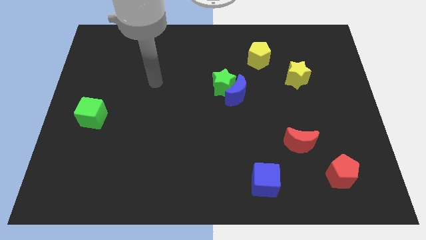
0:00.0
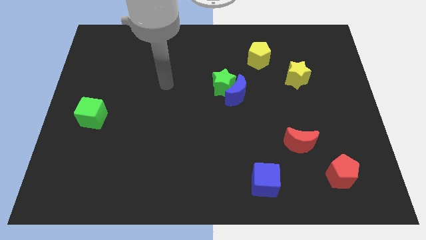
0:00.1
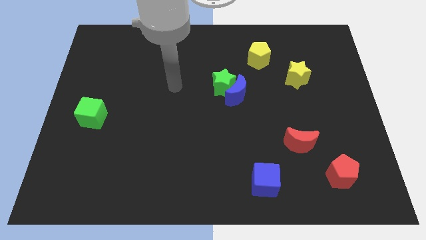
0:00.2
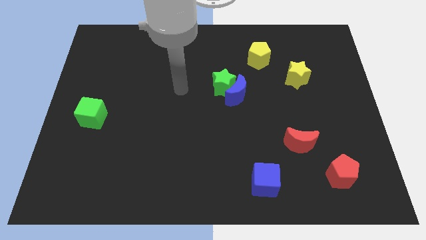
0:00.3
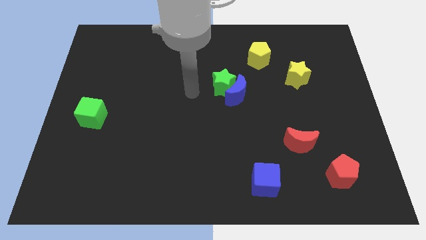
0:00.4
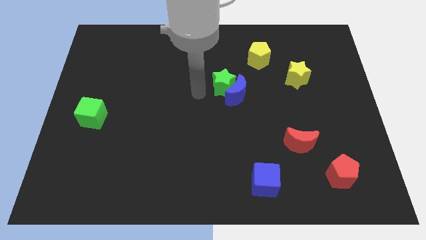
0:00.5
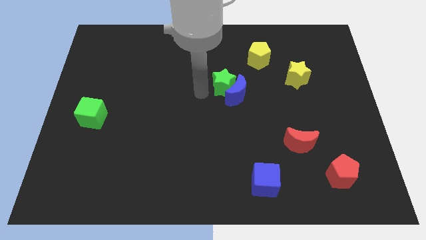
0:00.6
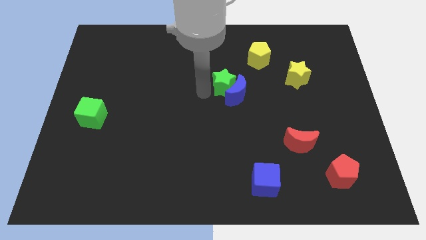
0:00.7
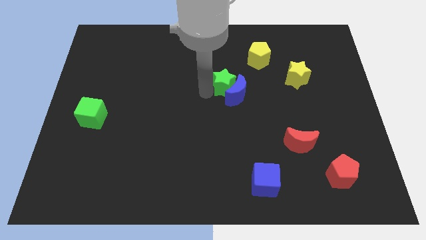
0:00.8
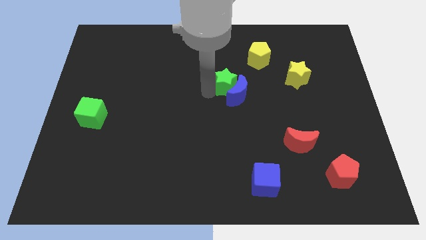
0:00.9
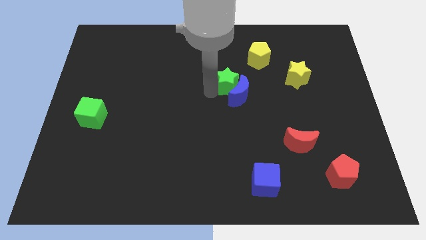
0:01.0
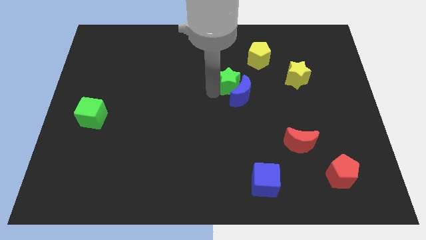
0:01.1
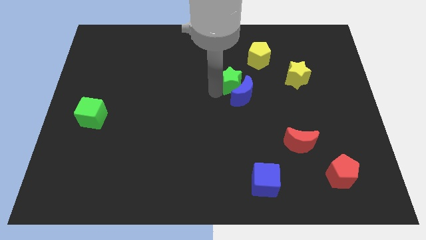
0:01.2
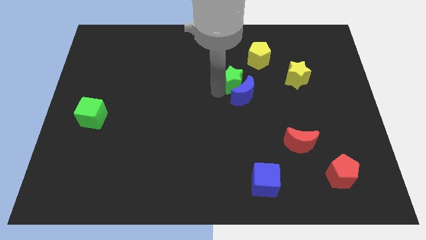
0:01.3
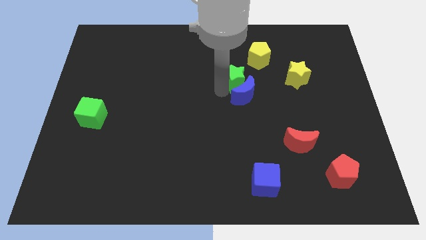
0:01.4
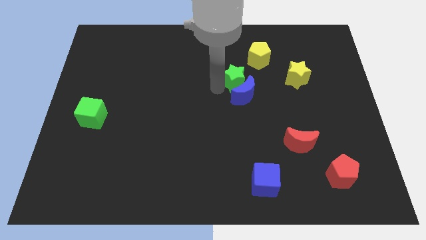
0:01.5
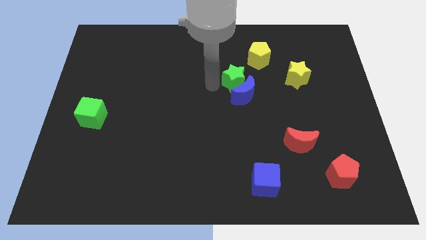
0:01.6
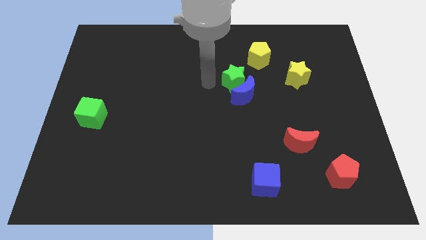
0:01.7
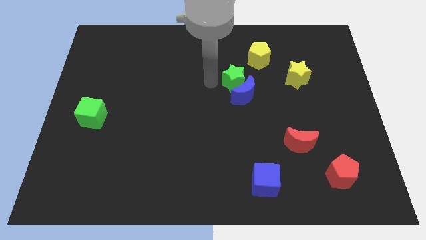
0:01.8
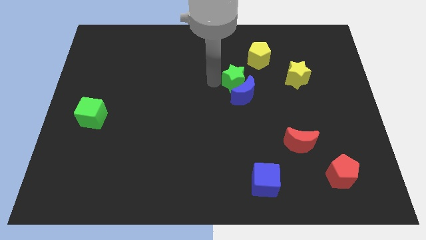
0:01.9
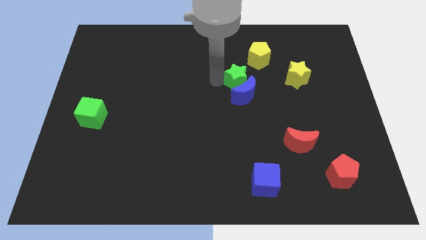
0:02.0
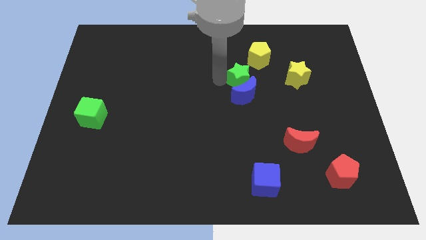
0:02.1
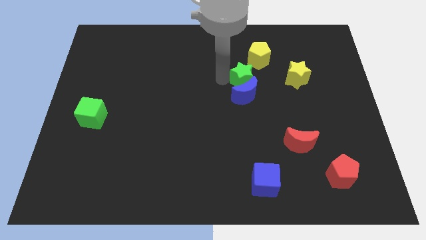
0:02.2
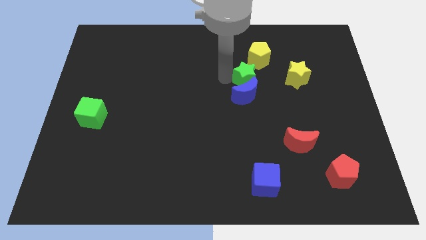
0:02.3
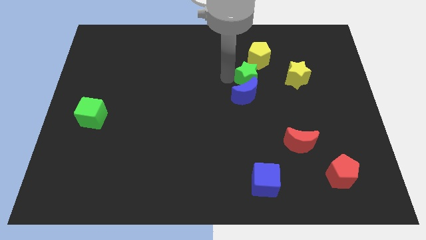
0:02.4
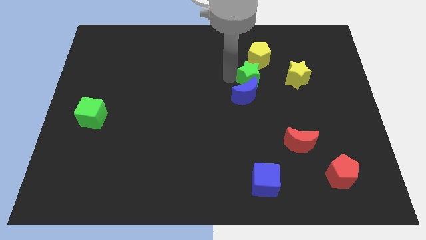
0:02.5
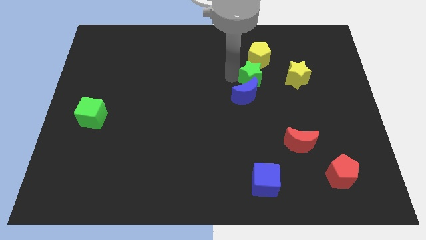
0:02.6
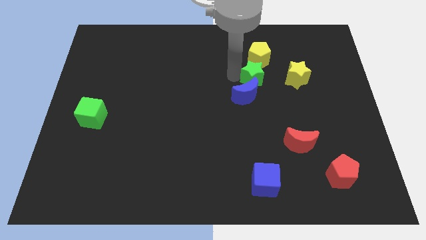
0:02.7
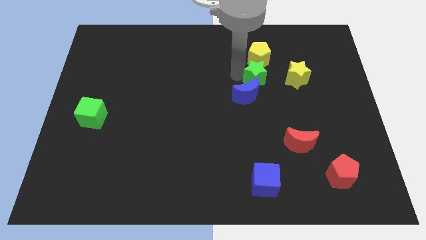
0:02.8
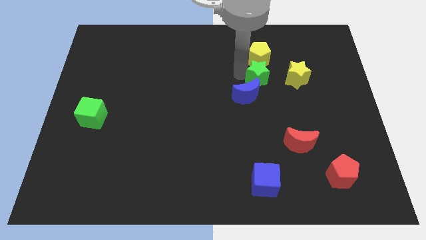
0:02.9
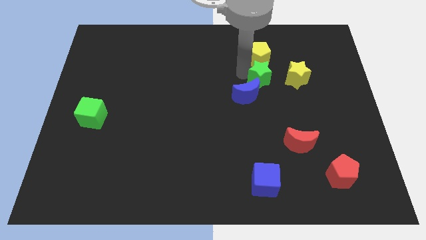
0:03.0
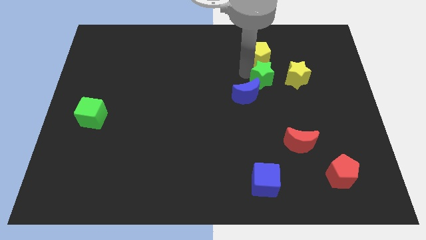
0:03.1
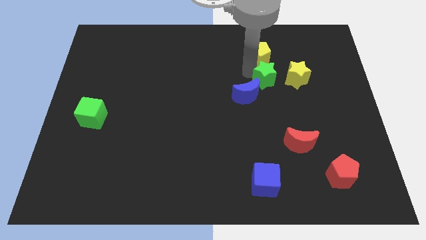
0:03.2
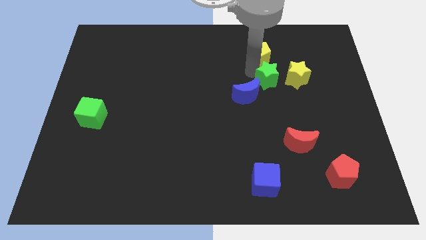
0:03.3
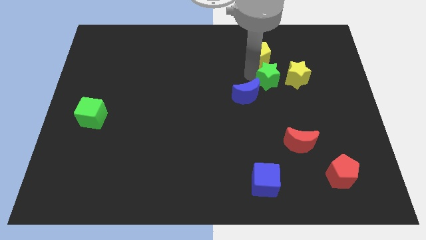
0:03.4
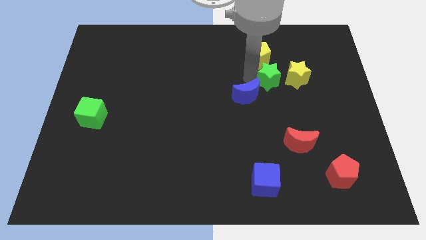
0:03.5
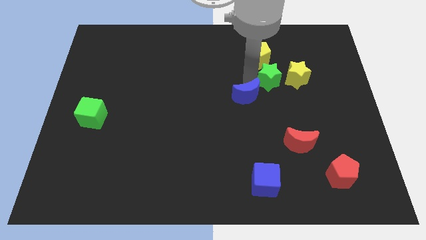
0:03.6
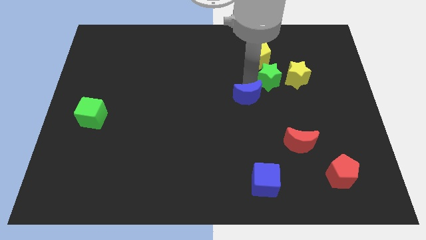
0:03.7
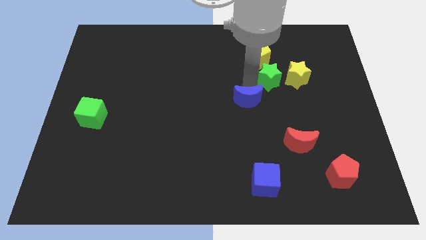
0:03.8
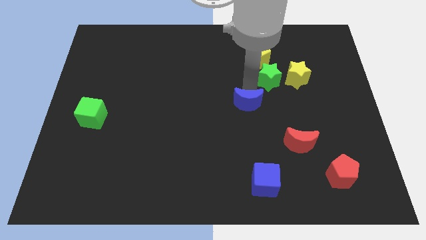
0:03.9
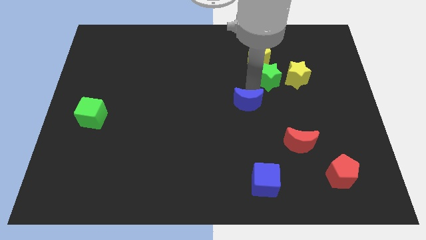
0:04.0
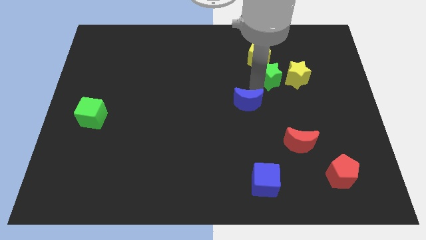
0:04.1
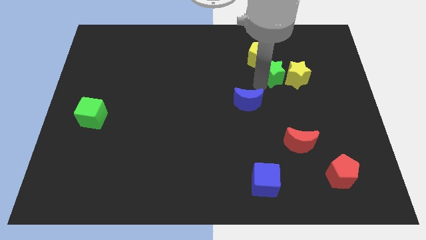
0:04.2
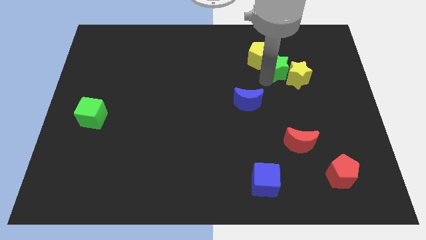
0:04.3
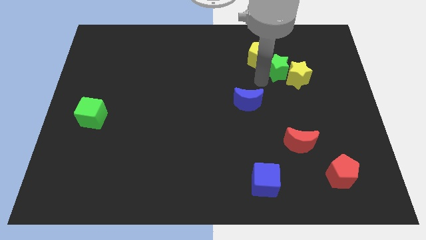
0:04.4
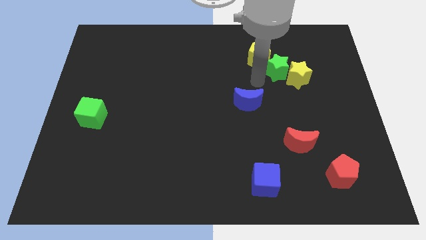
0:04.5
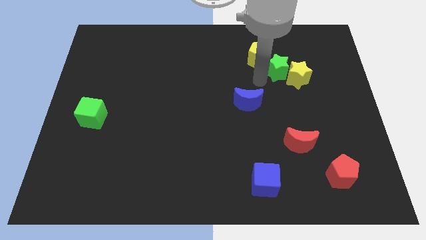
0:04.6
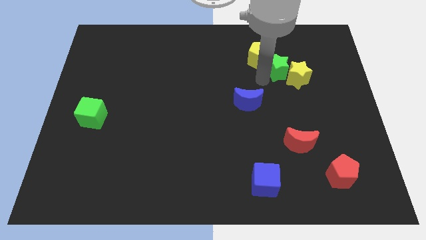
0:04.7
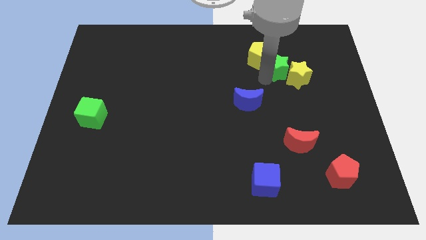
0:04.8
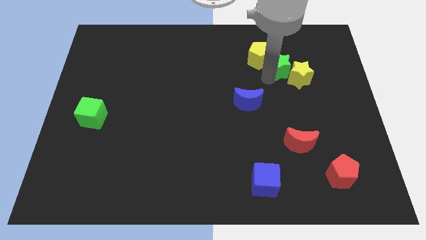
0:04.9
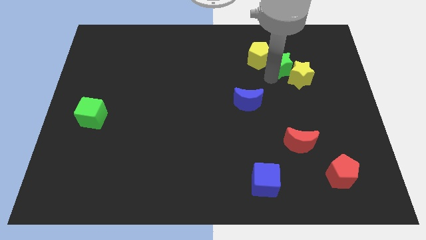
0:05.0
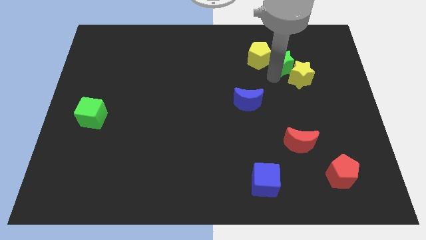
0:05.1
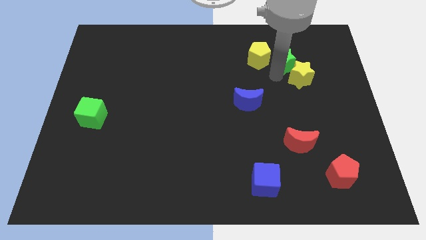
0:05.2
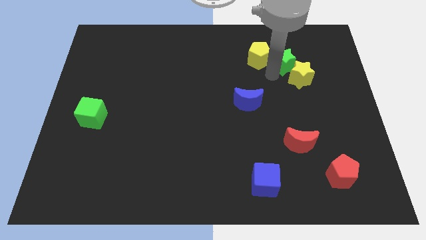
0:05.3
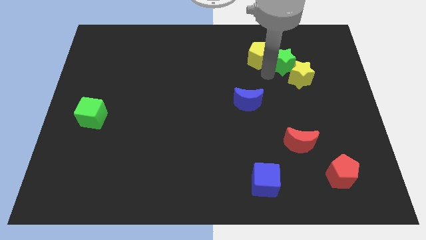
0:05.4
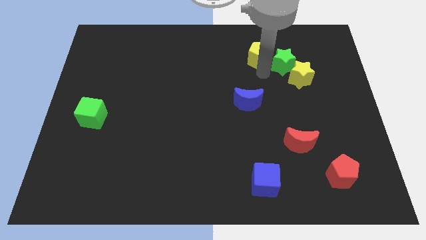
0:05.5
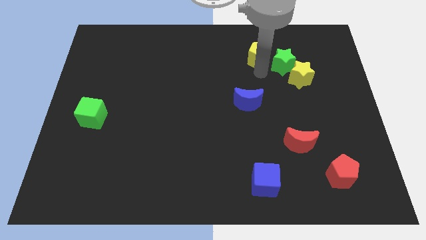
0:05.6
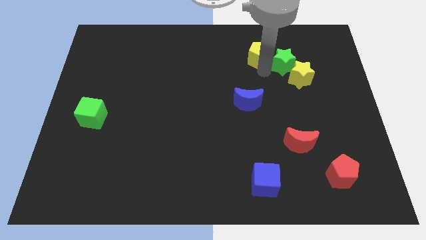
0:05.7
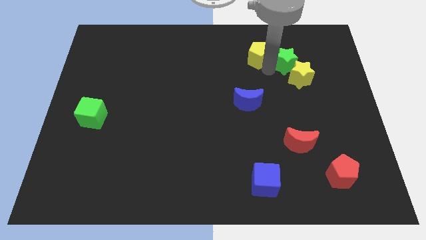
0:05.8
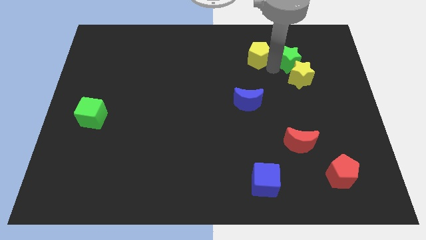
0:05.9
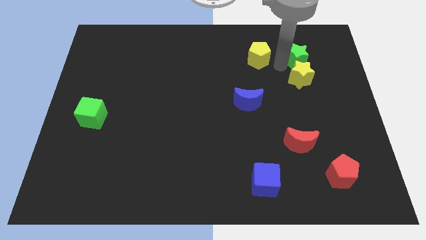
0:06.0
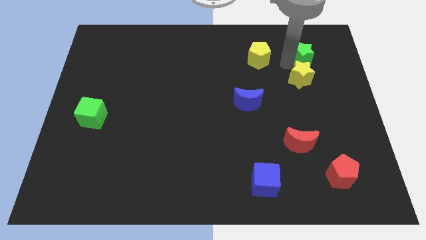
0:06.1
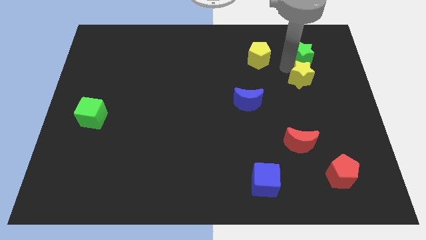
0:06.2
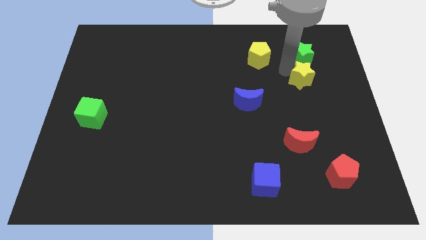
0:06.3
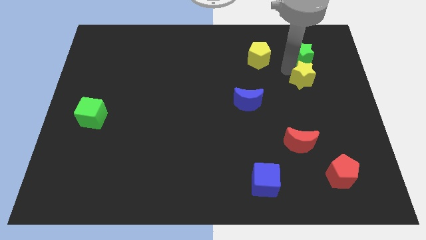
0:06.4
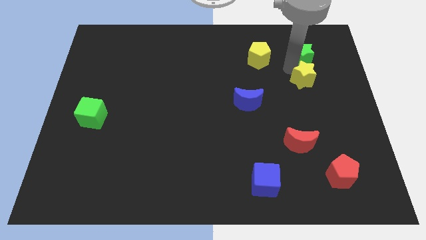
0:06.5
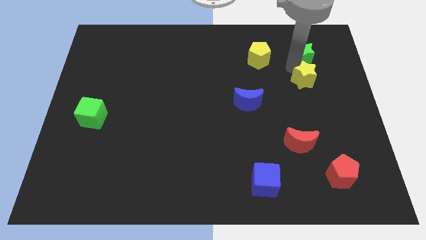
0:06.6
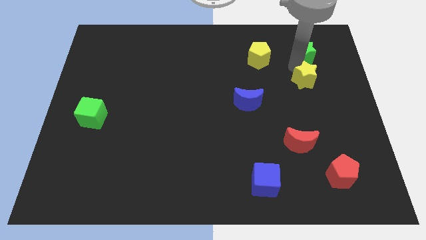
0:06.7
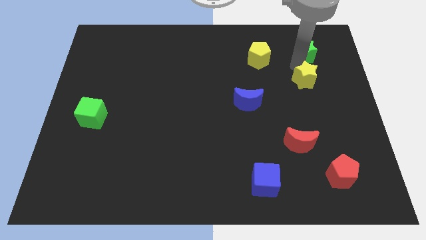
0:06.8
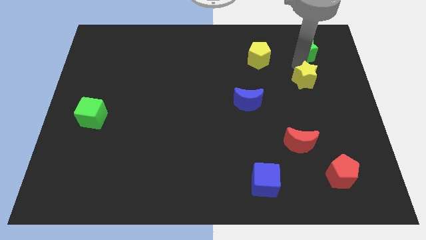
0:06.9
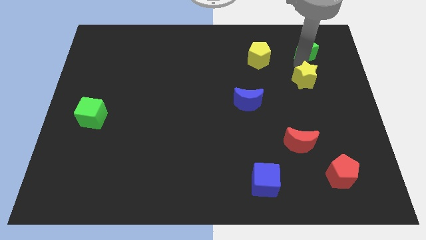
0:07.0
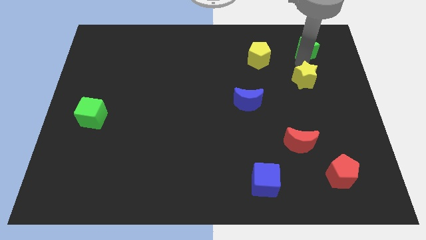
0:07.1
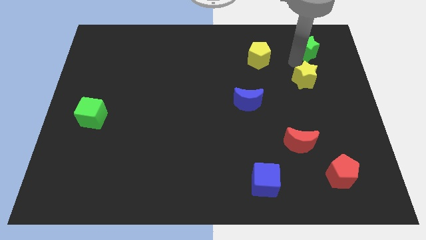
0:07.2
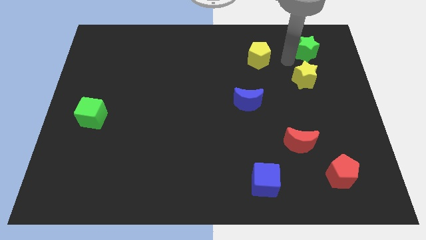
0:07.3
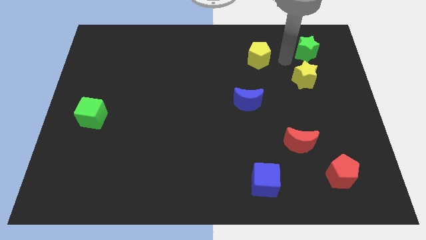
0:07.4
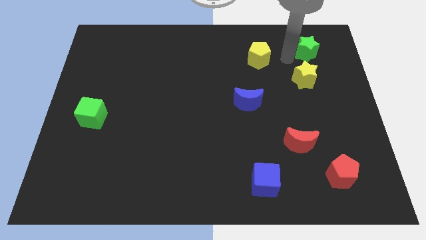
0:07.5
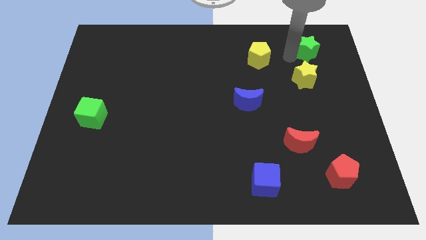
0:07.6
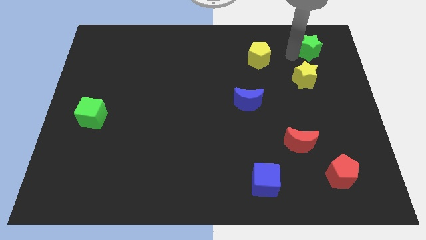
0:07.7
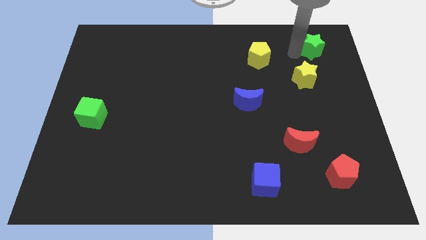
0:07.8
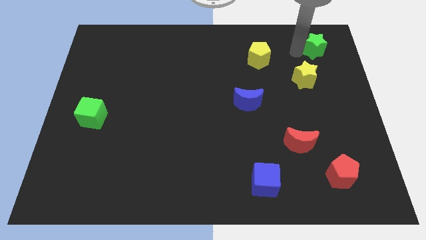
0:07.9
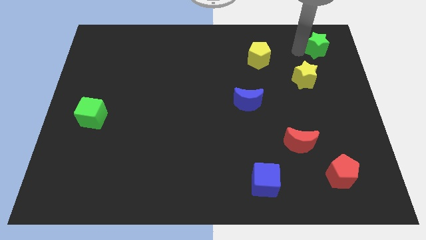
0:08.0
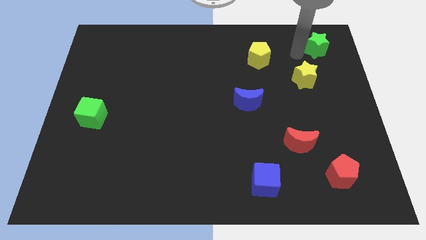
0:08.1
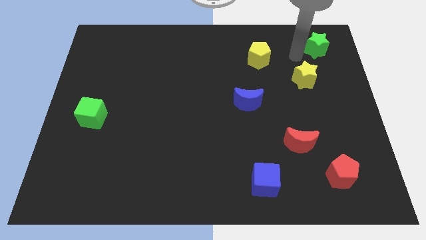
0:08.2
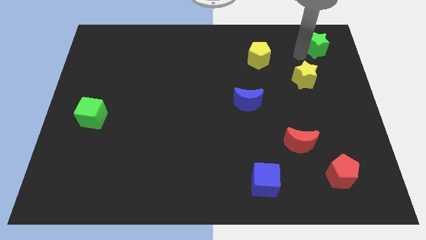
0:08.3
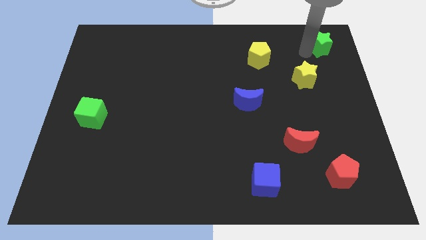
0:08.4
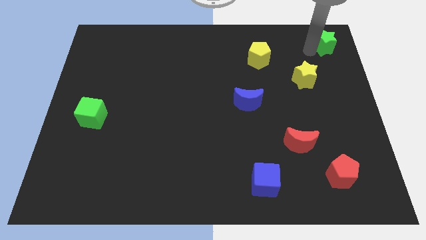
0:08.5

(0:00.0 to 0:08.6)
slide the green star to the top right
